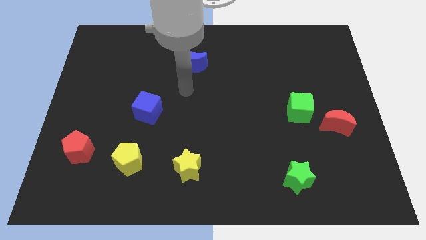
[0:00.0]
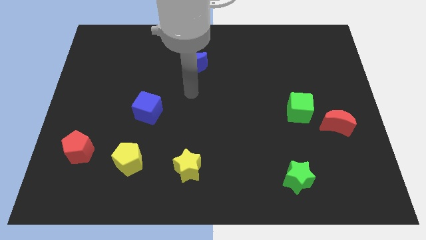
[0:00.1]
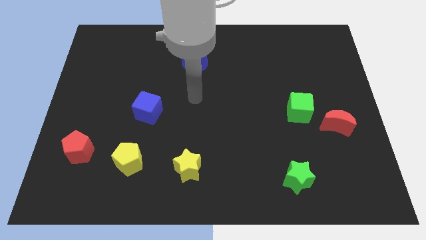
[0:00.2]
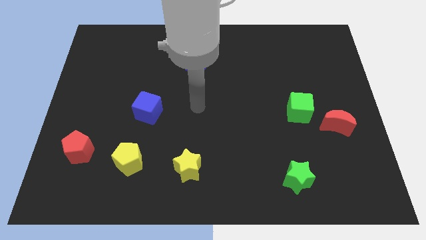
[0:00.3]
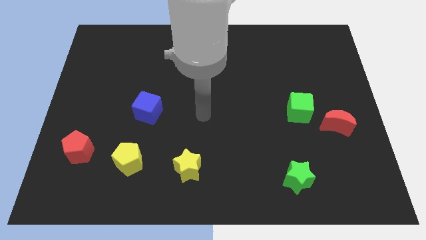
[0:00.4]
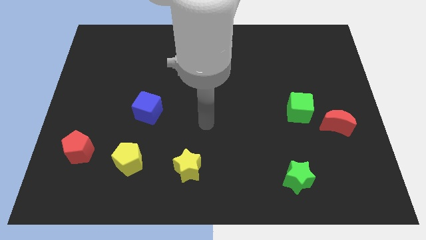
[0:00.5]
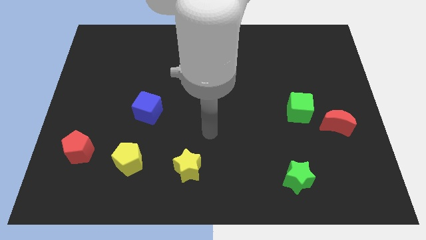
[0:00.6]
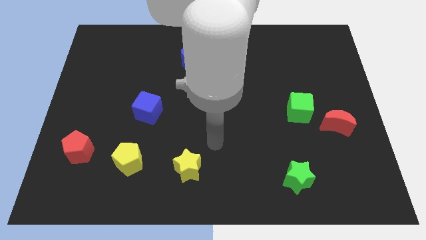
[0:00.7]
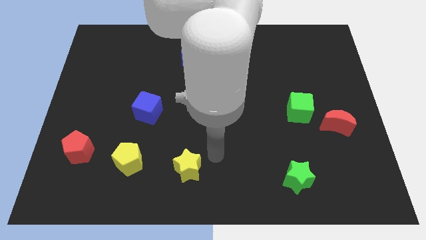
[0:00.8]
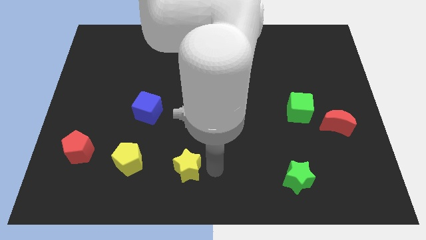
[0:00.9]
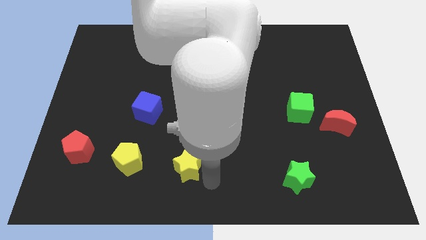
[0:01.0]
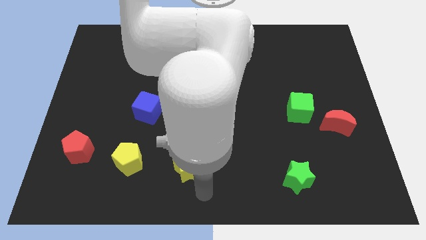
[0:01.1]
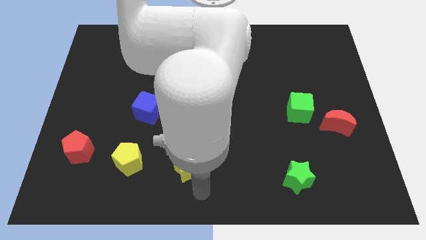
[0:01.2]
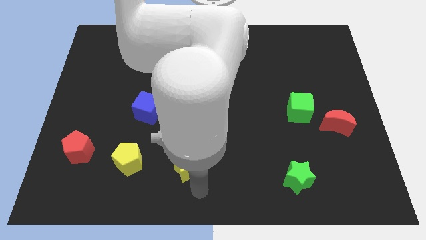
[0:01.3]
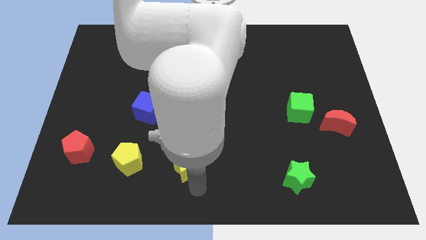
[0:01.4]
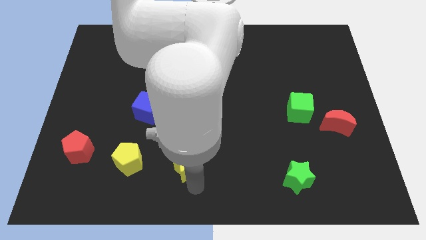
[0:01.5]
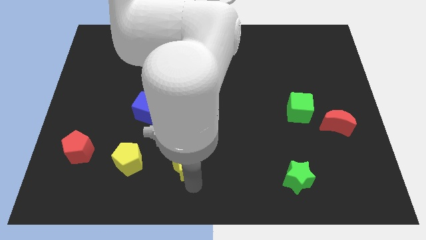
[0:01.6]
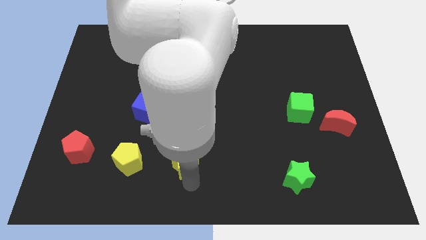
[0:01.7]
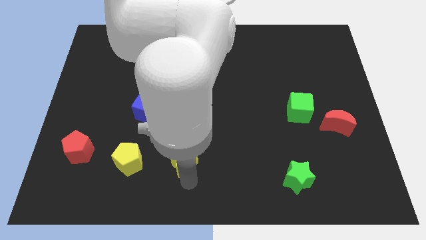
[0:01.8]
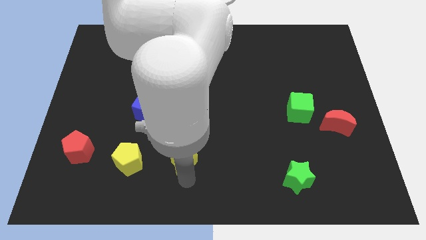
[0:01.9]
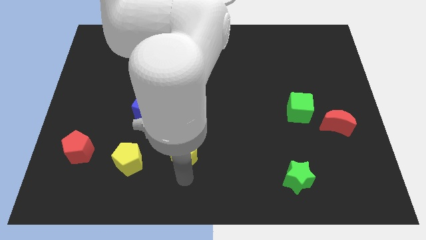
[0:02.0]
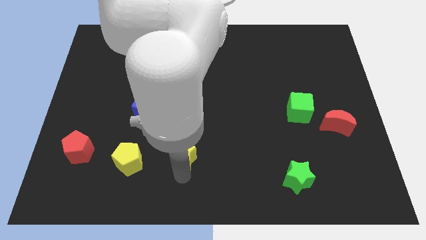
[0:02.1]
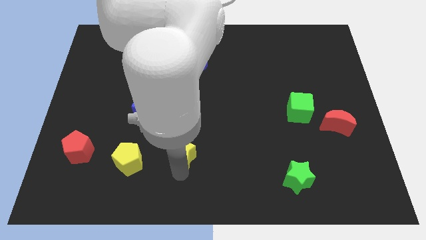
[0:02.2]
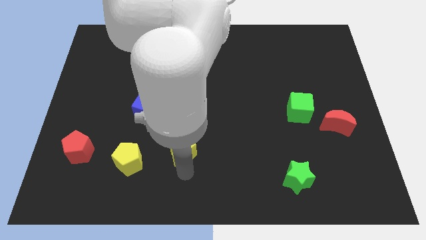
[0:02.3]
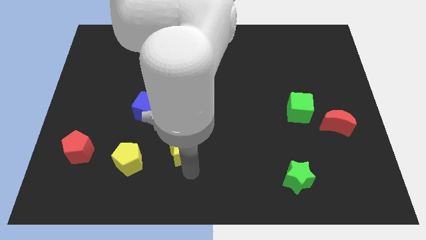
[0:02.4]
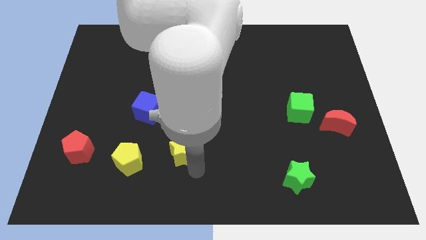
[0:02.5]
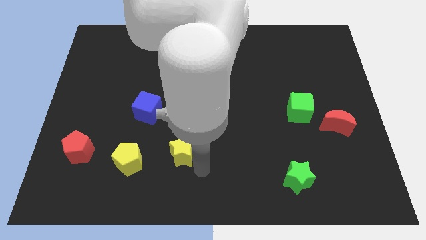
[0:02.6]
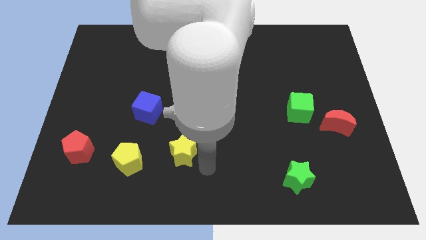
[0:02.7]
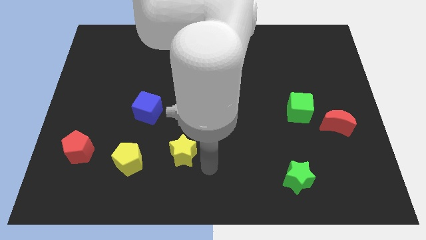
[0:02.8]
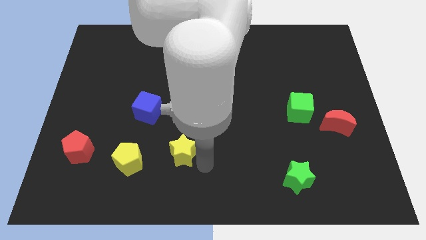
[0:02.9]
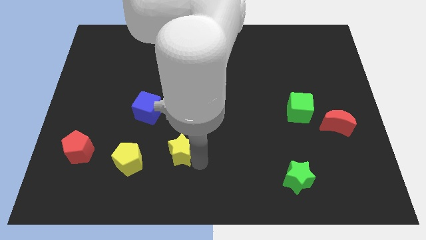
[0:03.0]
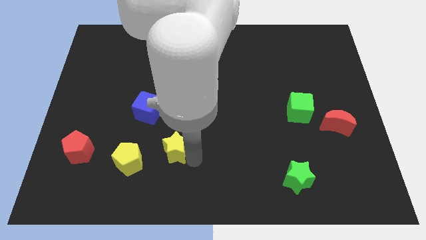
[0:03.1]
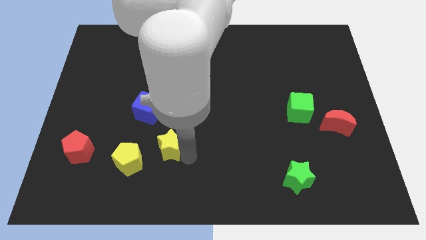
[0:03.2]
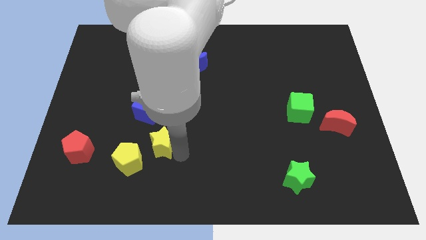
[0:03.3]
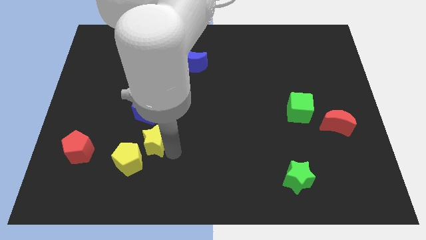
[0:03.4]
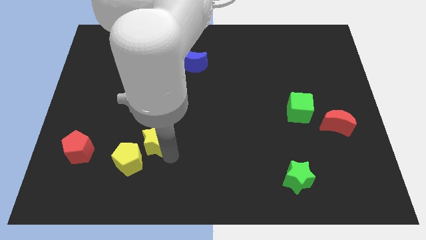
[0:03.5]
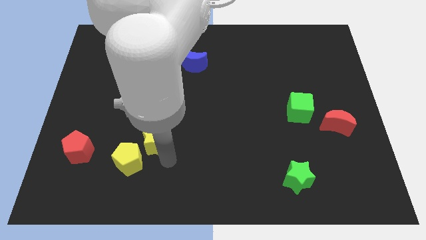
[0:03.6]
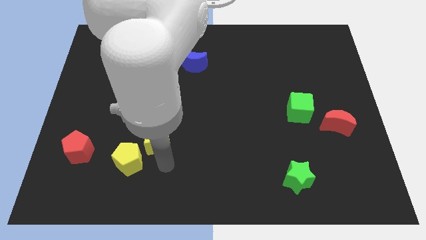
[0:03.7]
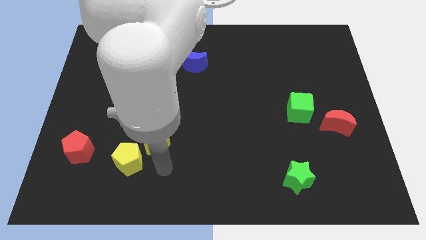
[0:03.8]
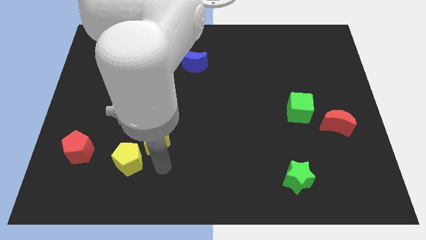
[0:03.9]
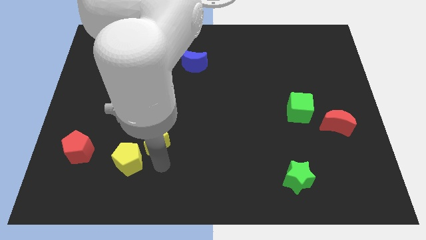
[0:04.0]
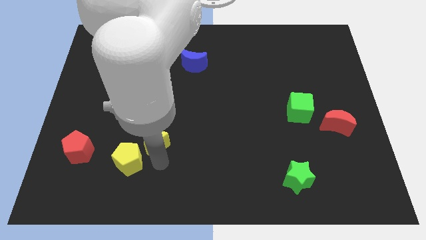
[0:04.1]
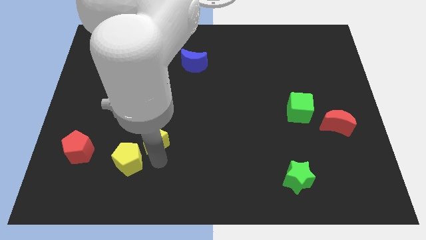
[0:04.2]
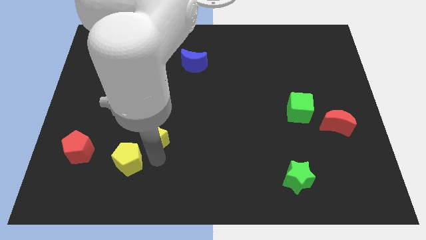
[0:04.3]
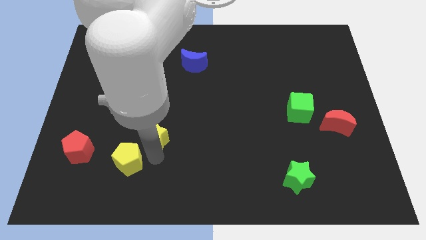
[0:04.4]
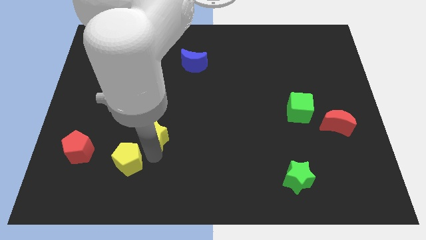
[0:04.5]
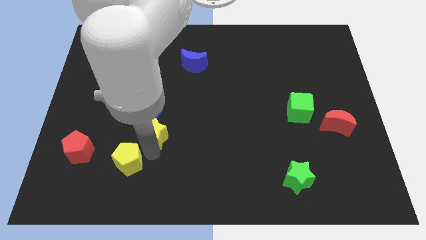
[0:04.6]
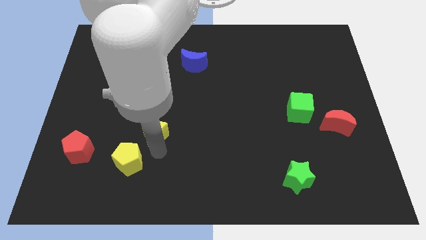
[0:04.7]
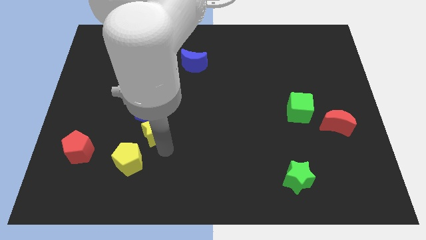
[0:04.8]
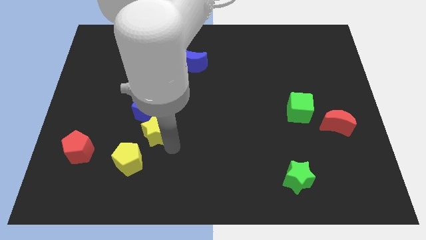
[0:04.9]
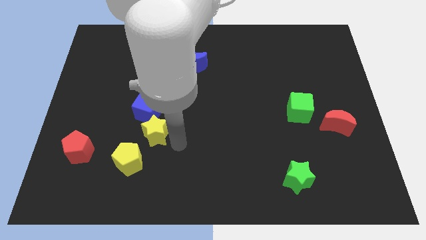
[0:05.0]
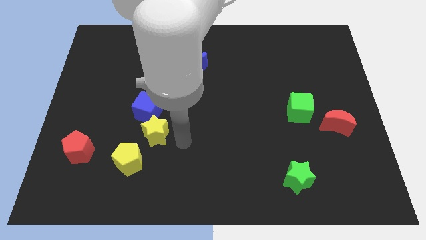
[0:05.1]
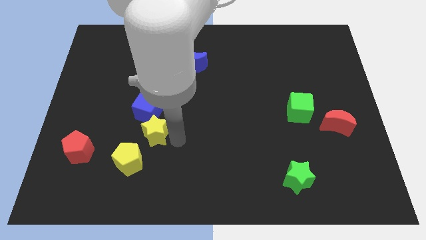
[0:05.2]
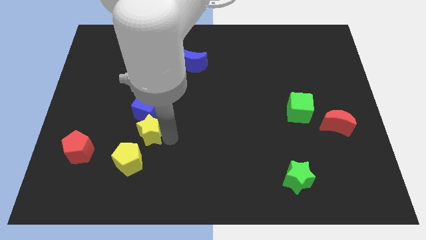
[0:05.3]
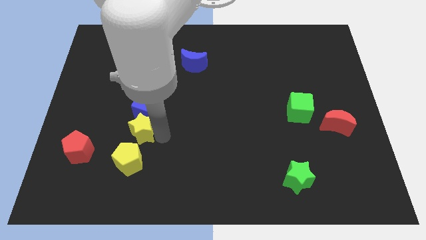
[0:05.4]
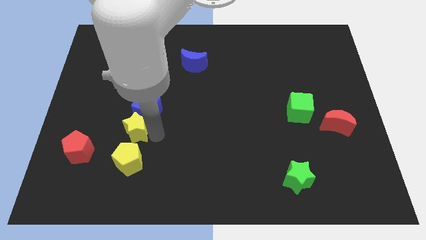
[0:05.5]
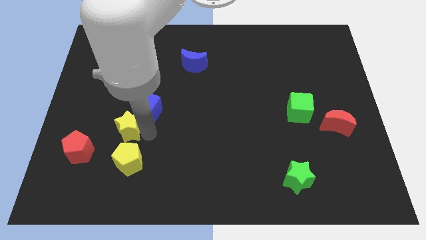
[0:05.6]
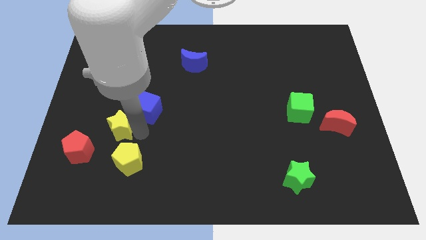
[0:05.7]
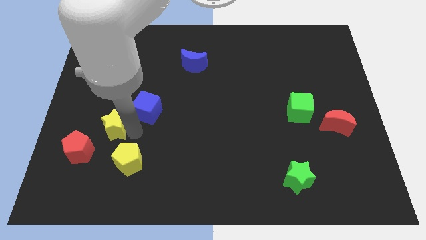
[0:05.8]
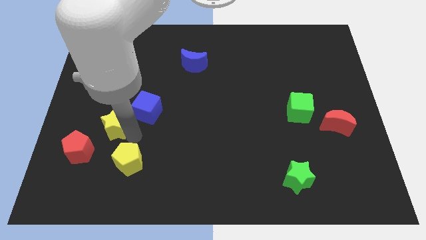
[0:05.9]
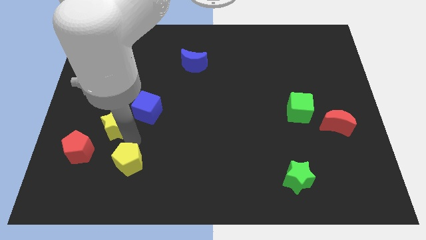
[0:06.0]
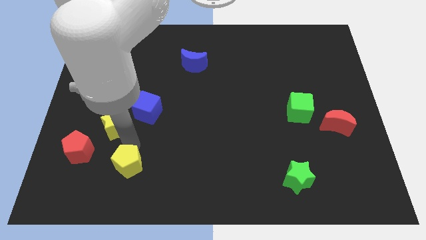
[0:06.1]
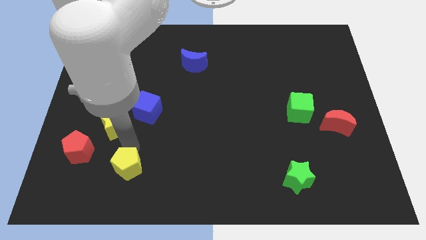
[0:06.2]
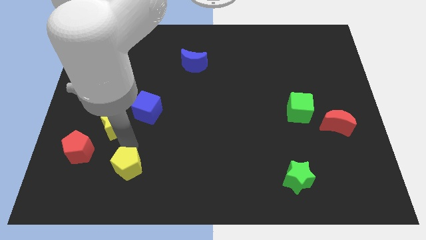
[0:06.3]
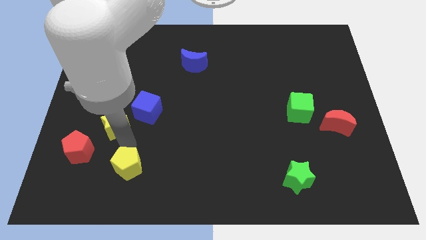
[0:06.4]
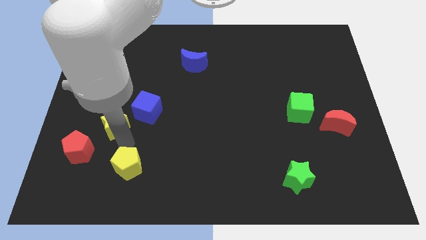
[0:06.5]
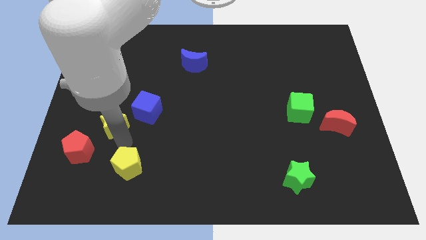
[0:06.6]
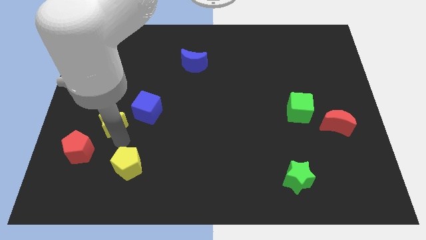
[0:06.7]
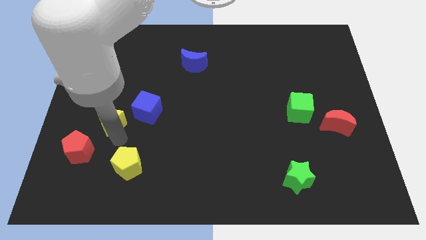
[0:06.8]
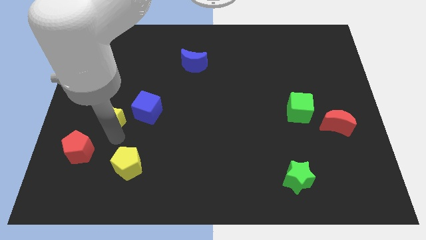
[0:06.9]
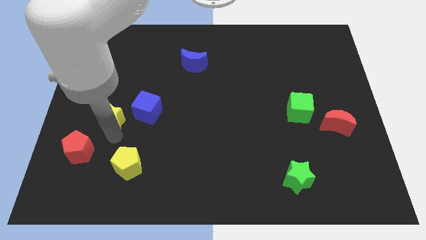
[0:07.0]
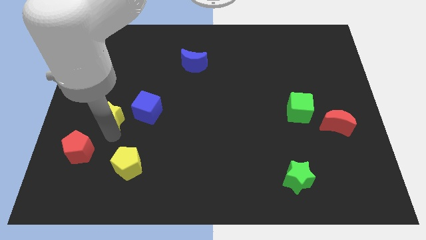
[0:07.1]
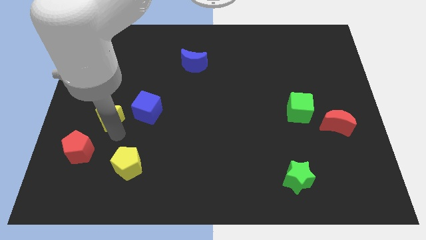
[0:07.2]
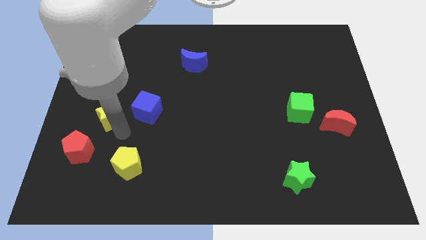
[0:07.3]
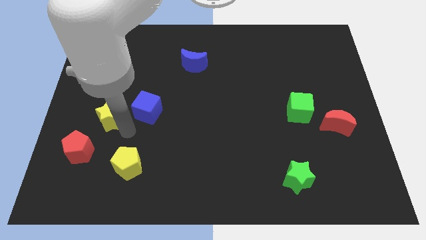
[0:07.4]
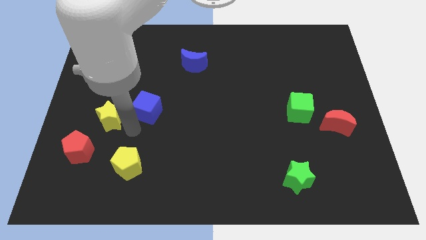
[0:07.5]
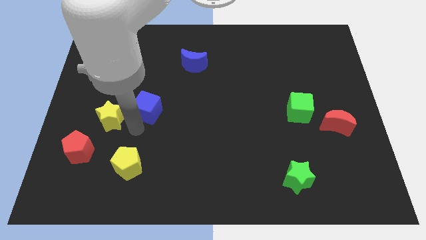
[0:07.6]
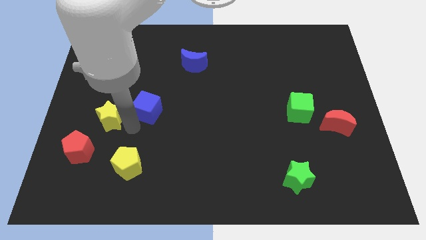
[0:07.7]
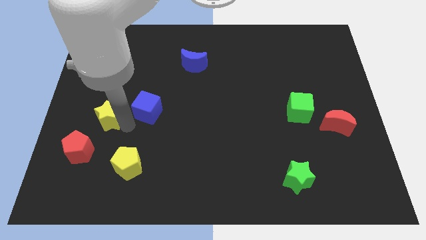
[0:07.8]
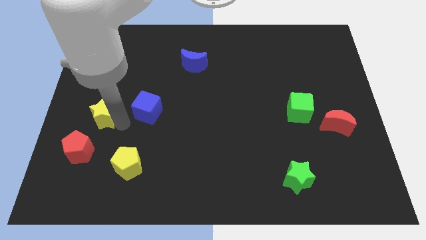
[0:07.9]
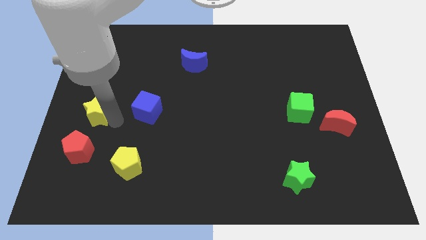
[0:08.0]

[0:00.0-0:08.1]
put the yellow star to the center left
